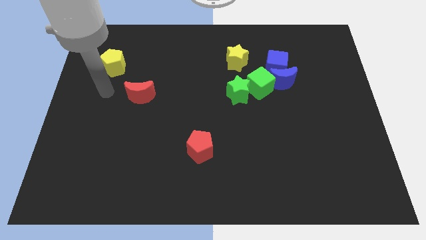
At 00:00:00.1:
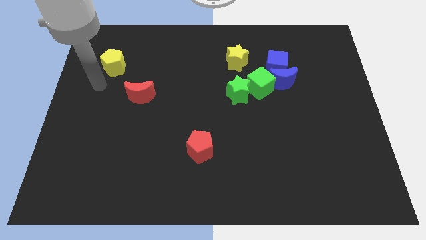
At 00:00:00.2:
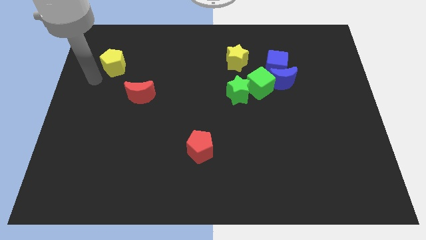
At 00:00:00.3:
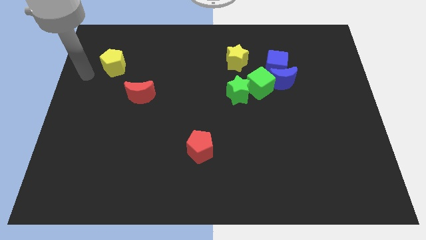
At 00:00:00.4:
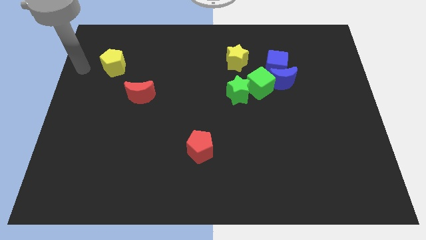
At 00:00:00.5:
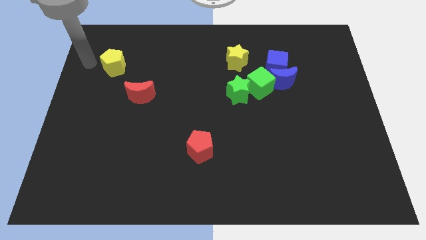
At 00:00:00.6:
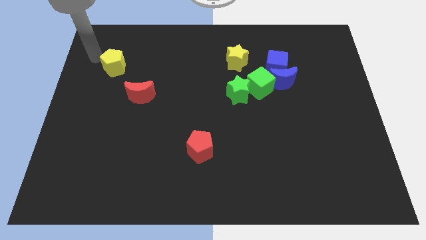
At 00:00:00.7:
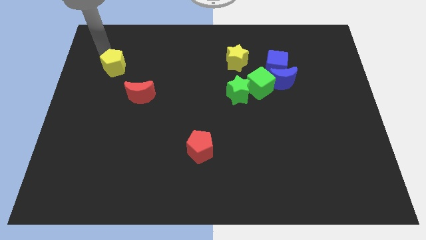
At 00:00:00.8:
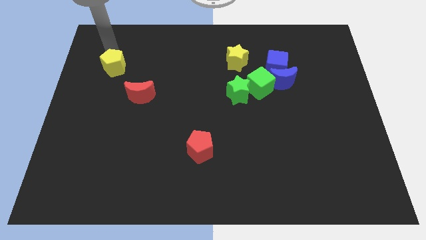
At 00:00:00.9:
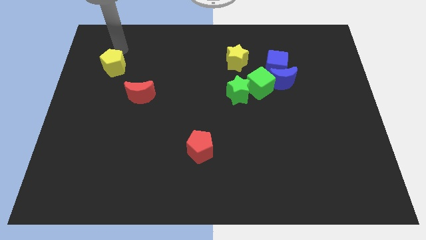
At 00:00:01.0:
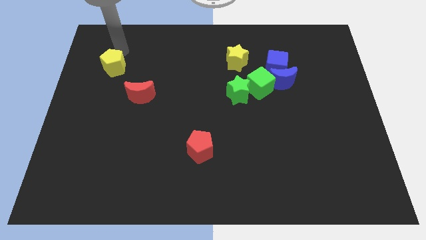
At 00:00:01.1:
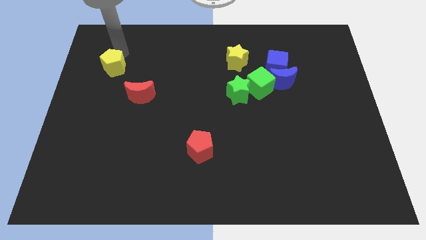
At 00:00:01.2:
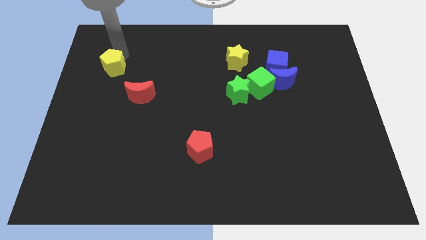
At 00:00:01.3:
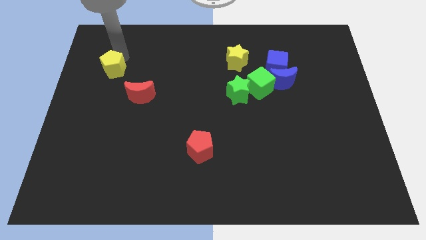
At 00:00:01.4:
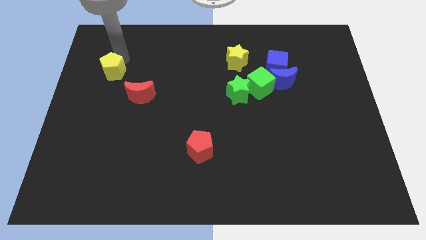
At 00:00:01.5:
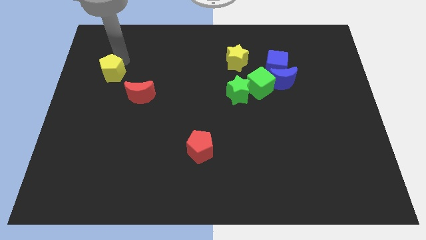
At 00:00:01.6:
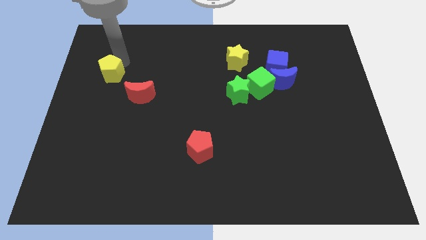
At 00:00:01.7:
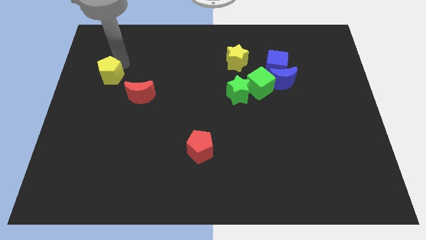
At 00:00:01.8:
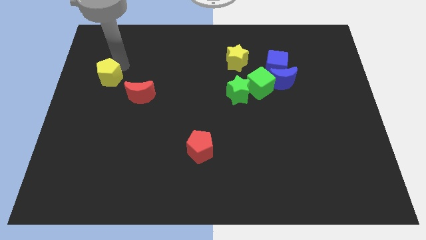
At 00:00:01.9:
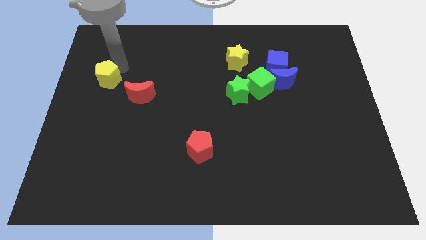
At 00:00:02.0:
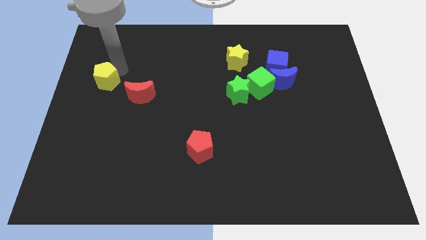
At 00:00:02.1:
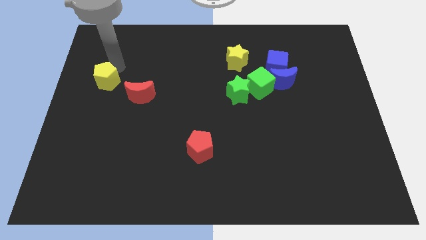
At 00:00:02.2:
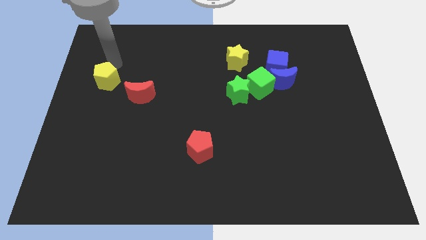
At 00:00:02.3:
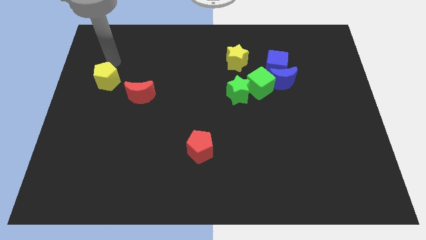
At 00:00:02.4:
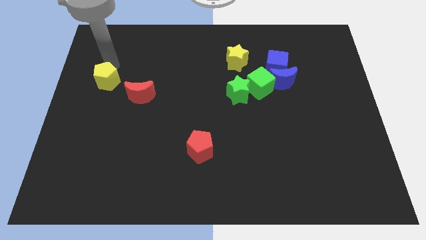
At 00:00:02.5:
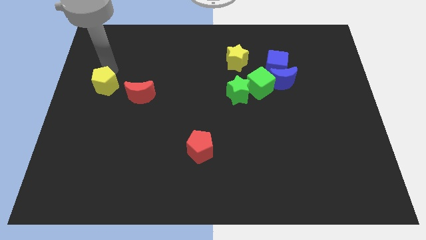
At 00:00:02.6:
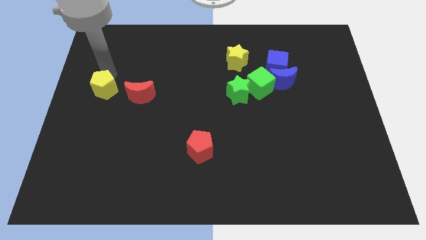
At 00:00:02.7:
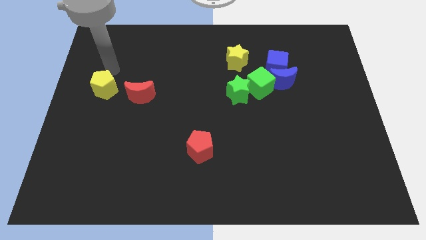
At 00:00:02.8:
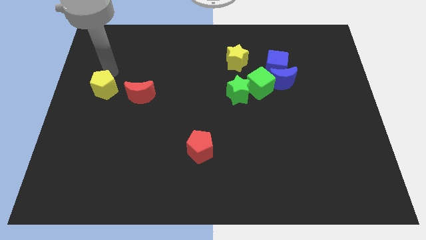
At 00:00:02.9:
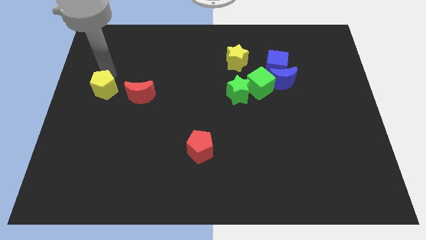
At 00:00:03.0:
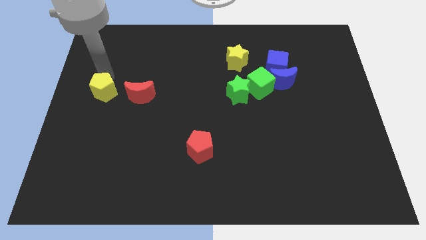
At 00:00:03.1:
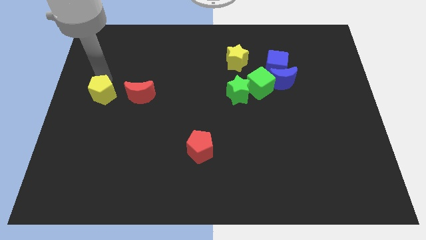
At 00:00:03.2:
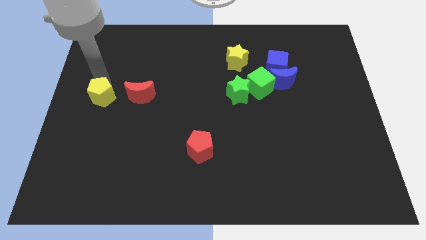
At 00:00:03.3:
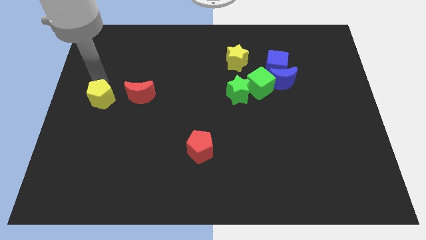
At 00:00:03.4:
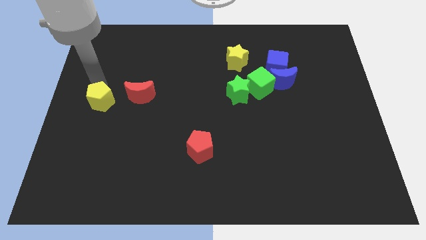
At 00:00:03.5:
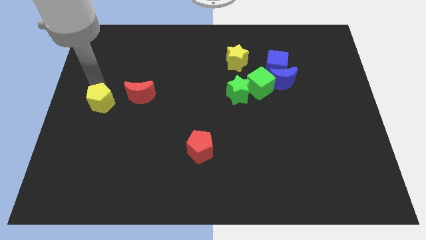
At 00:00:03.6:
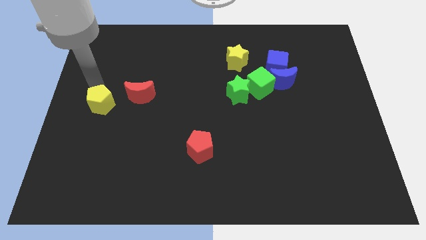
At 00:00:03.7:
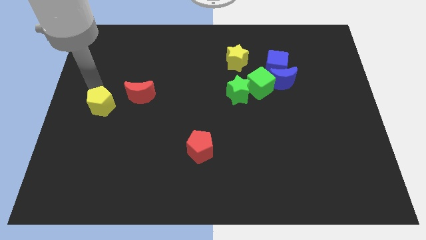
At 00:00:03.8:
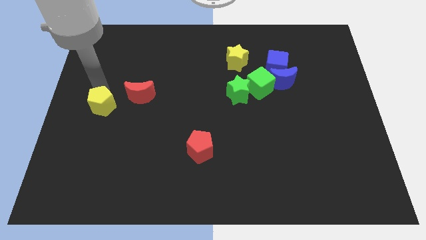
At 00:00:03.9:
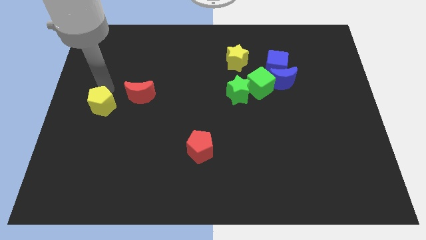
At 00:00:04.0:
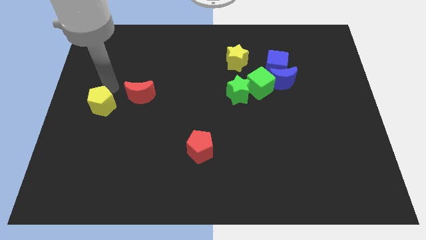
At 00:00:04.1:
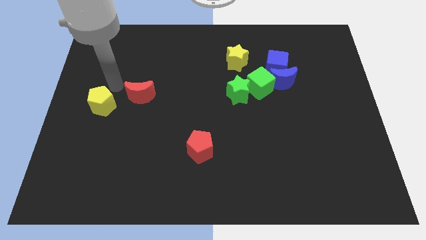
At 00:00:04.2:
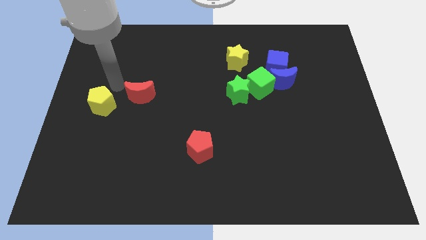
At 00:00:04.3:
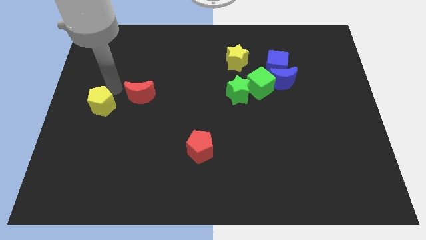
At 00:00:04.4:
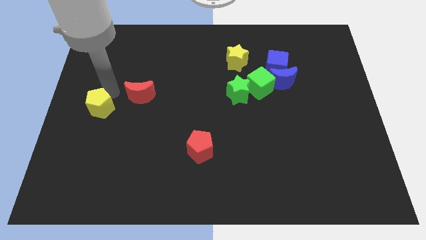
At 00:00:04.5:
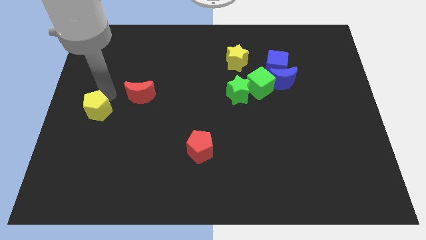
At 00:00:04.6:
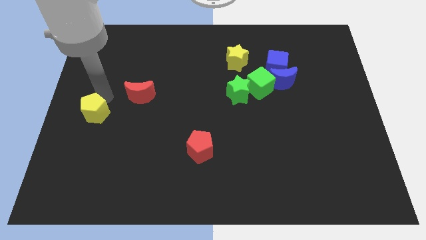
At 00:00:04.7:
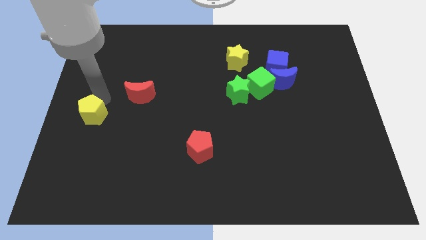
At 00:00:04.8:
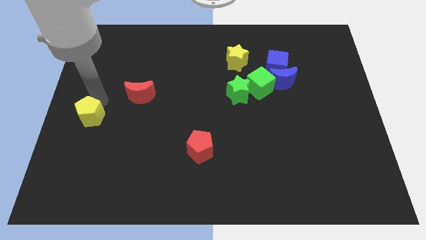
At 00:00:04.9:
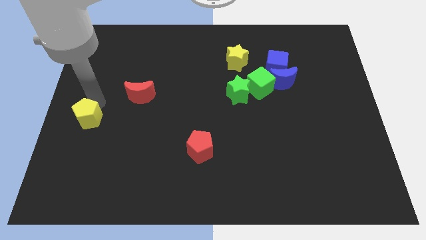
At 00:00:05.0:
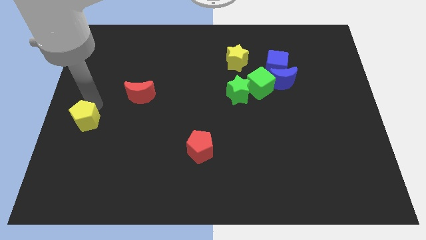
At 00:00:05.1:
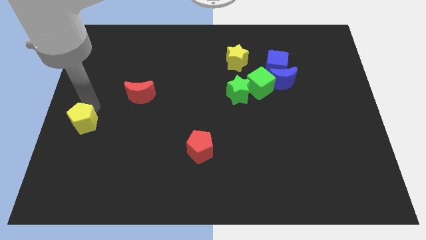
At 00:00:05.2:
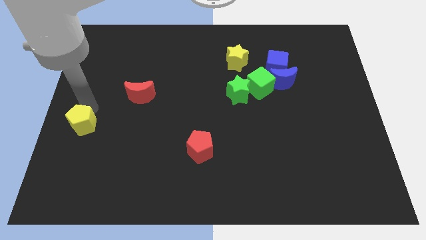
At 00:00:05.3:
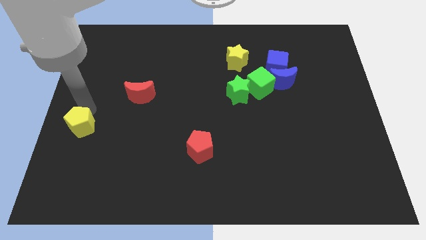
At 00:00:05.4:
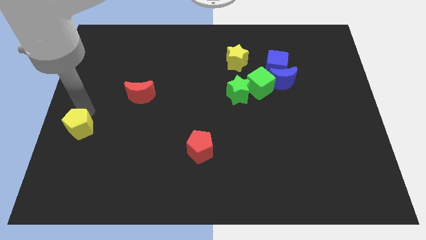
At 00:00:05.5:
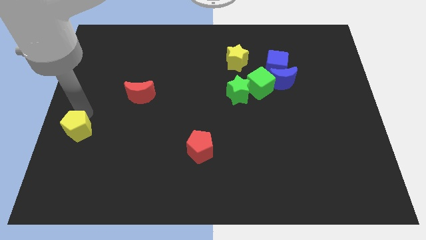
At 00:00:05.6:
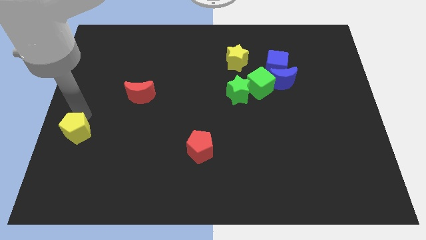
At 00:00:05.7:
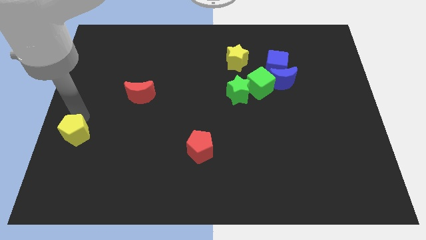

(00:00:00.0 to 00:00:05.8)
move the yellow pentagon downwards

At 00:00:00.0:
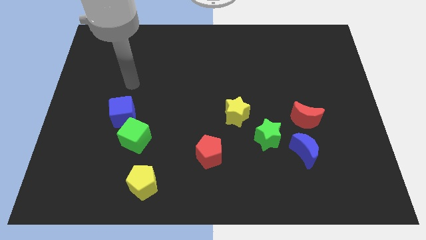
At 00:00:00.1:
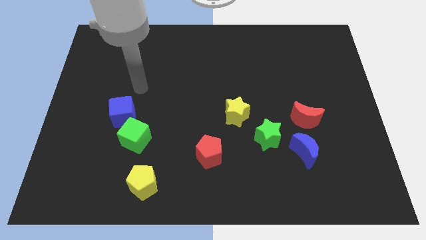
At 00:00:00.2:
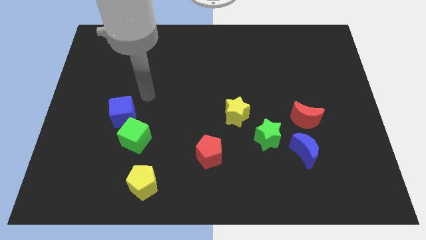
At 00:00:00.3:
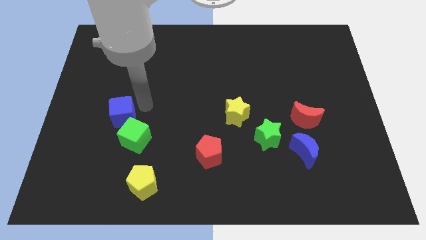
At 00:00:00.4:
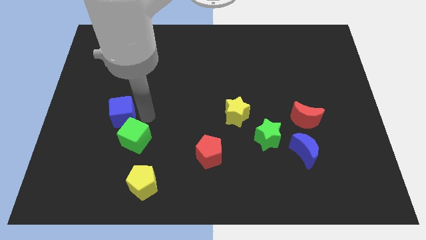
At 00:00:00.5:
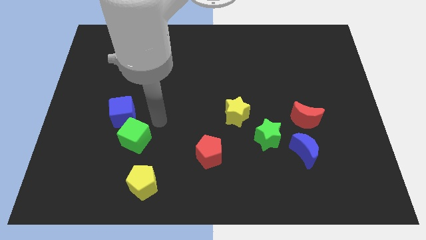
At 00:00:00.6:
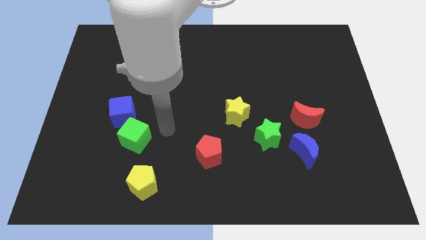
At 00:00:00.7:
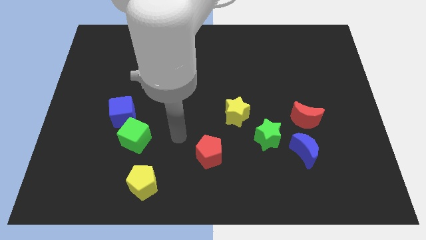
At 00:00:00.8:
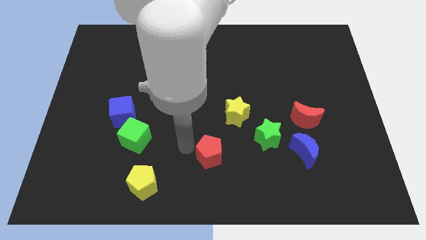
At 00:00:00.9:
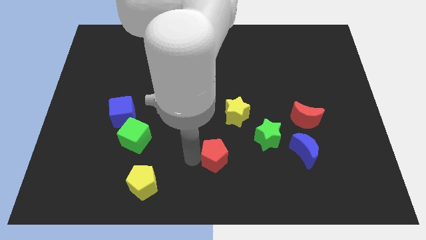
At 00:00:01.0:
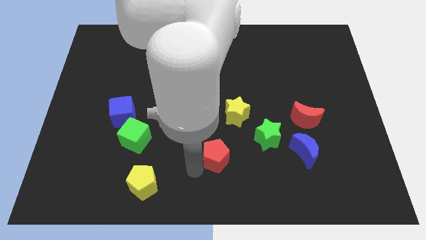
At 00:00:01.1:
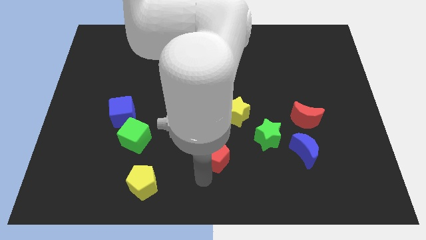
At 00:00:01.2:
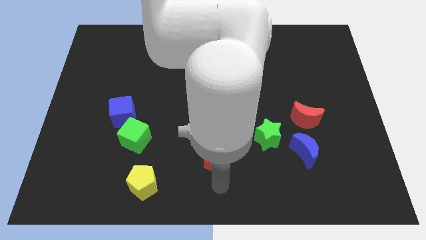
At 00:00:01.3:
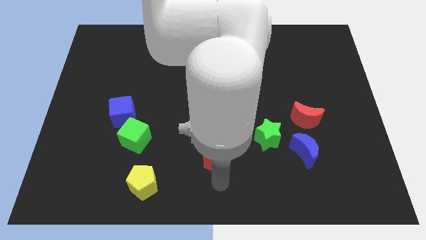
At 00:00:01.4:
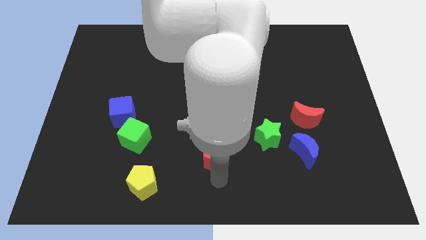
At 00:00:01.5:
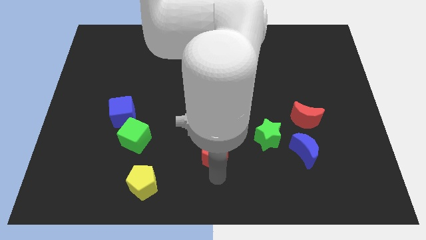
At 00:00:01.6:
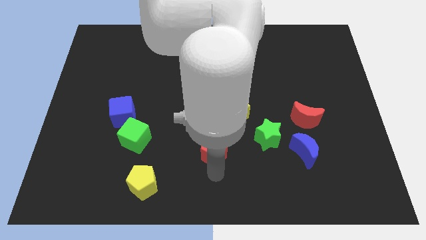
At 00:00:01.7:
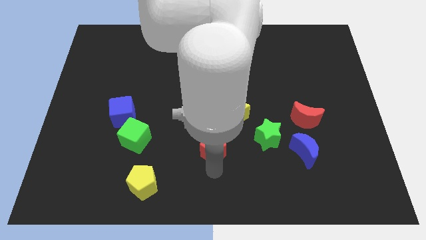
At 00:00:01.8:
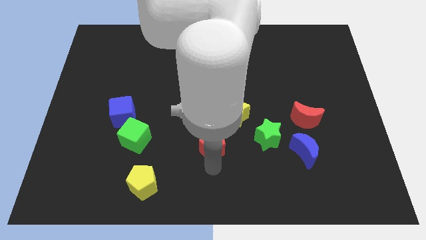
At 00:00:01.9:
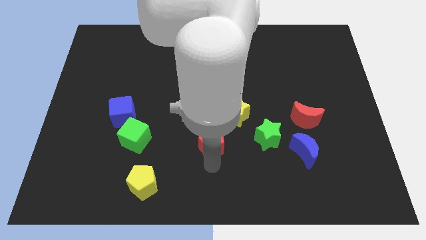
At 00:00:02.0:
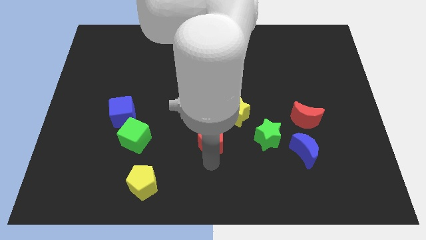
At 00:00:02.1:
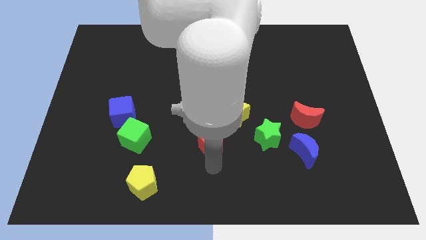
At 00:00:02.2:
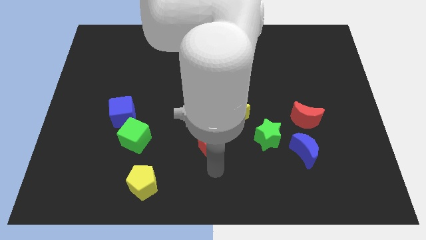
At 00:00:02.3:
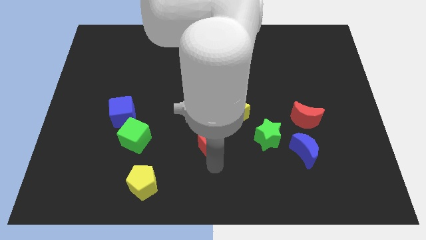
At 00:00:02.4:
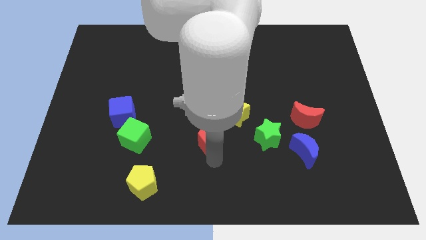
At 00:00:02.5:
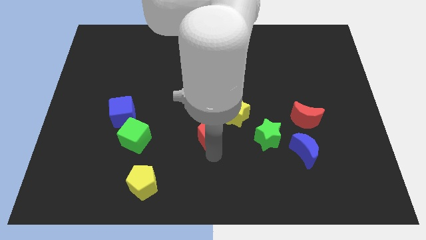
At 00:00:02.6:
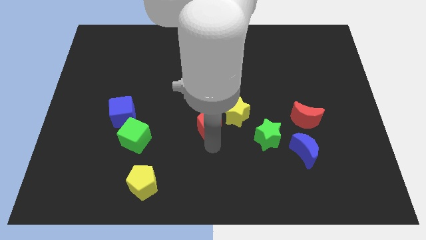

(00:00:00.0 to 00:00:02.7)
slightly push the red pentagon up
